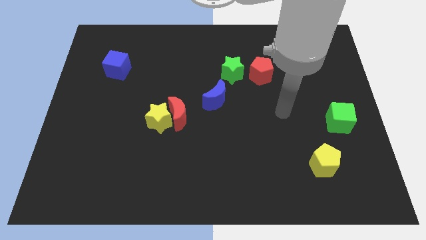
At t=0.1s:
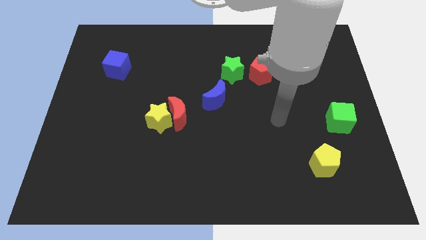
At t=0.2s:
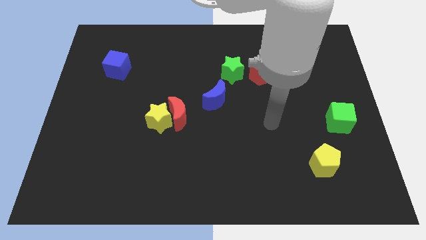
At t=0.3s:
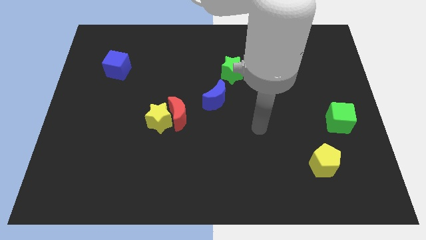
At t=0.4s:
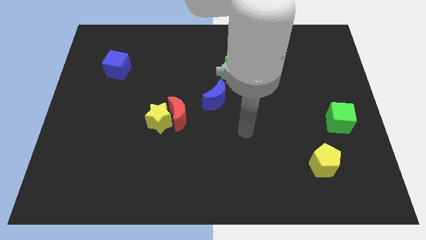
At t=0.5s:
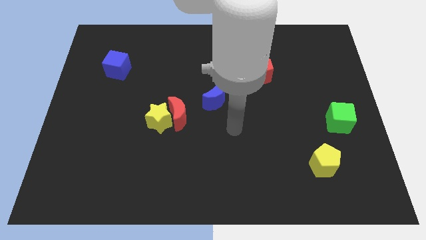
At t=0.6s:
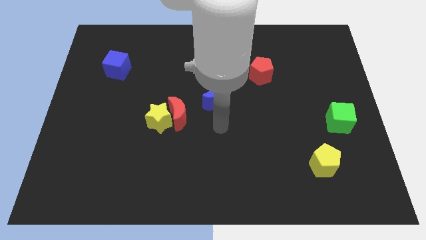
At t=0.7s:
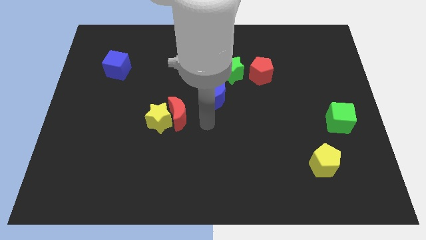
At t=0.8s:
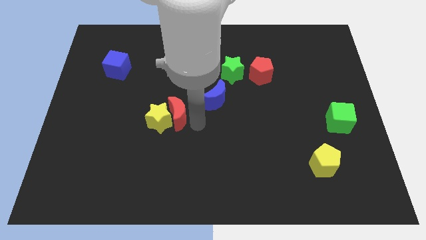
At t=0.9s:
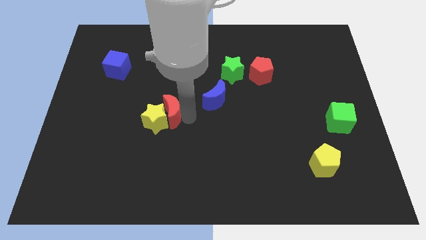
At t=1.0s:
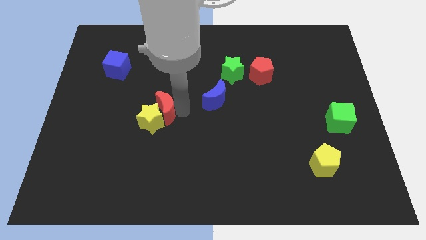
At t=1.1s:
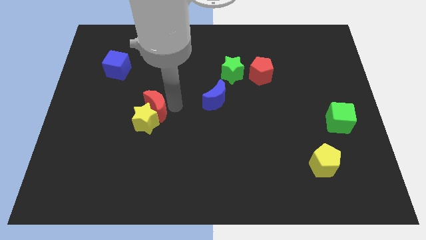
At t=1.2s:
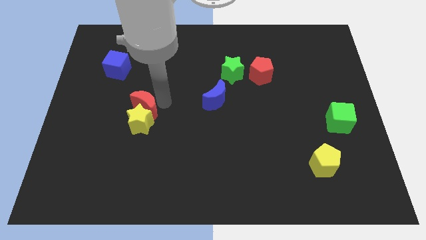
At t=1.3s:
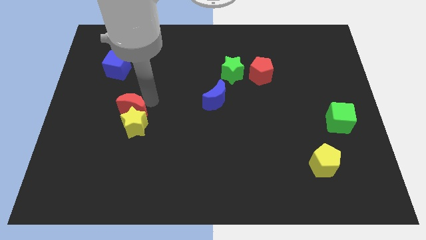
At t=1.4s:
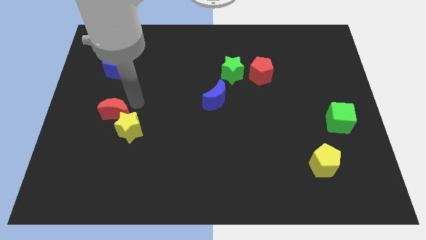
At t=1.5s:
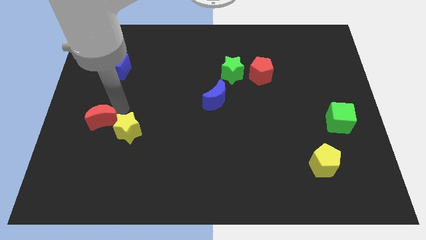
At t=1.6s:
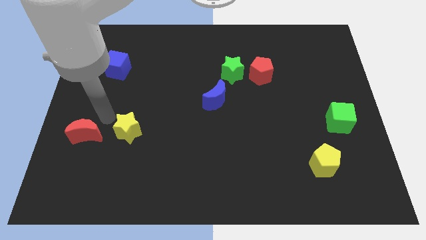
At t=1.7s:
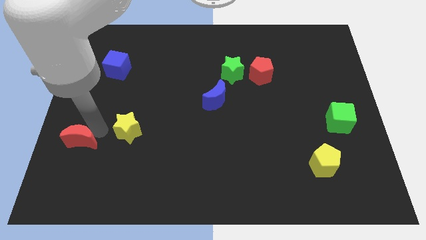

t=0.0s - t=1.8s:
pull the yellow star apart from the red moon

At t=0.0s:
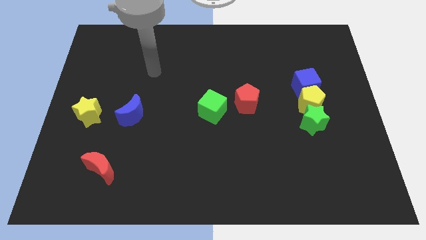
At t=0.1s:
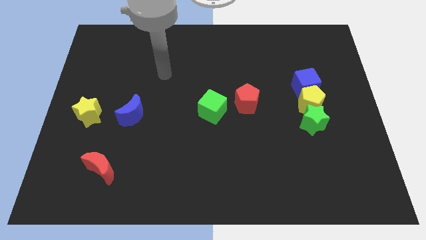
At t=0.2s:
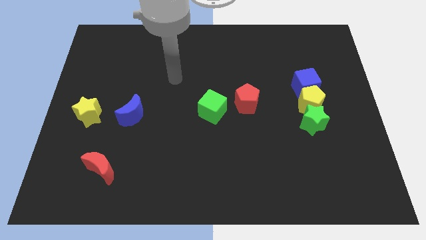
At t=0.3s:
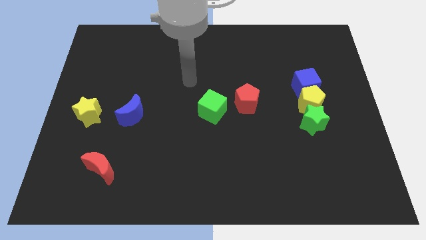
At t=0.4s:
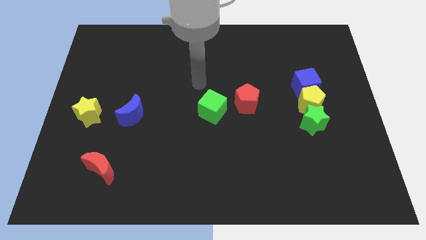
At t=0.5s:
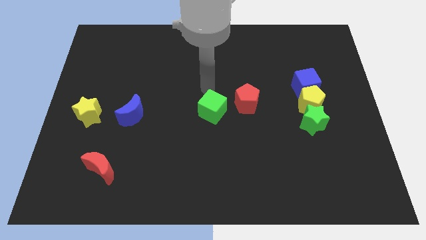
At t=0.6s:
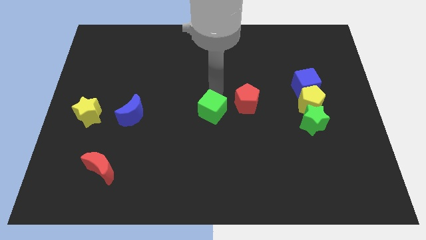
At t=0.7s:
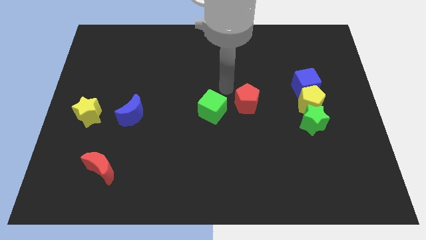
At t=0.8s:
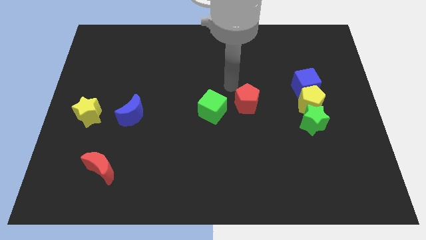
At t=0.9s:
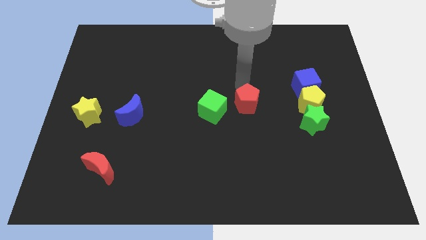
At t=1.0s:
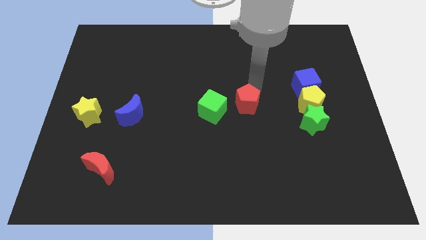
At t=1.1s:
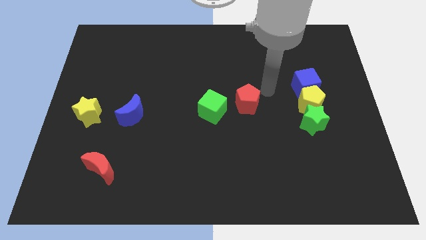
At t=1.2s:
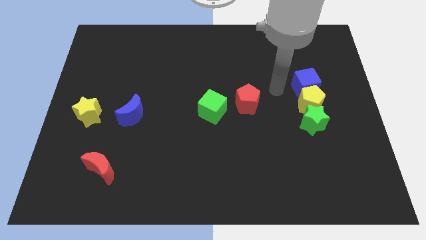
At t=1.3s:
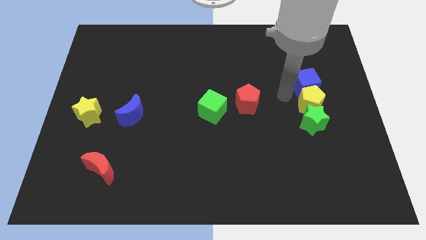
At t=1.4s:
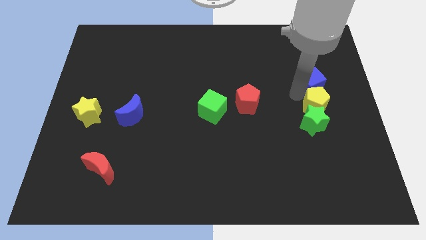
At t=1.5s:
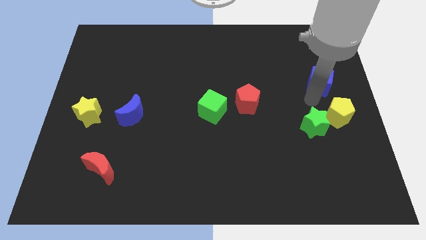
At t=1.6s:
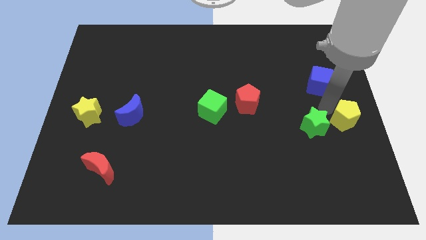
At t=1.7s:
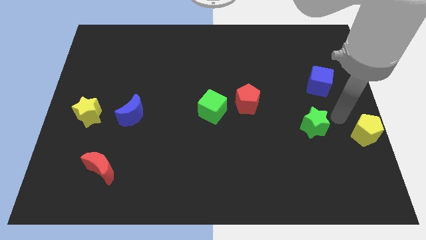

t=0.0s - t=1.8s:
pull the green star apart from the yellow pentagon

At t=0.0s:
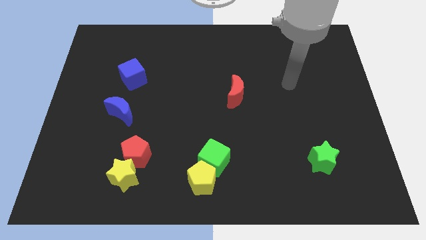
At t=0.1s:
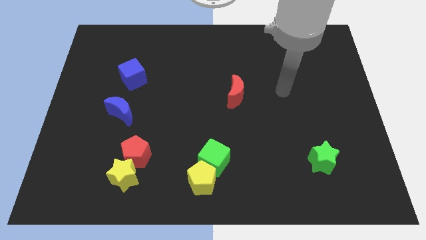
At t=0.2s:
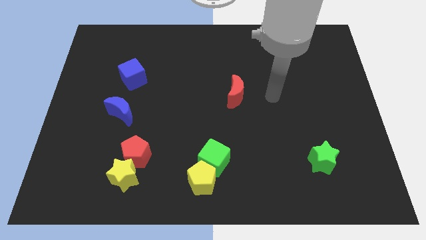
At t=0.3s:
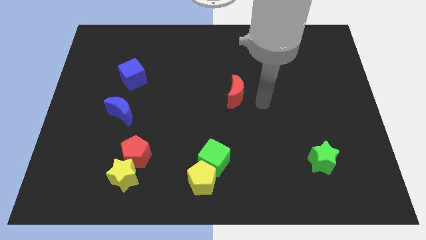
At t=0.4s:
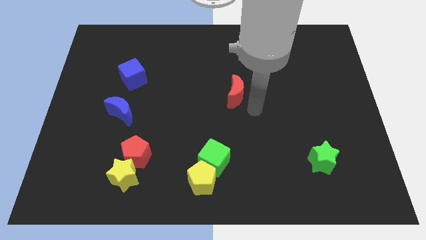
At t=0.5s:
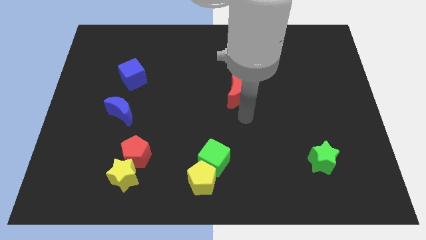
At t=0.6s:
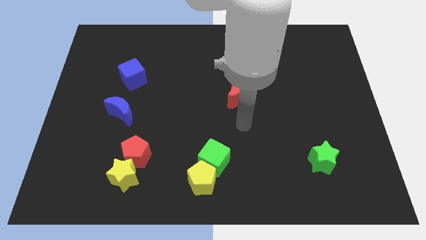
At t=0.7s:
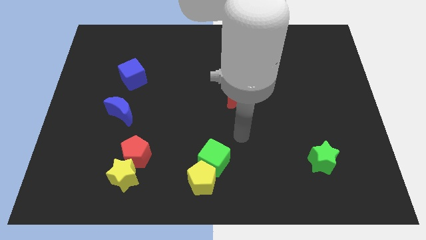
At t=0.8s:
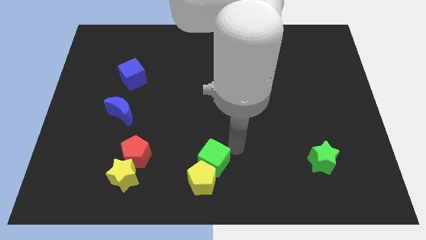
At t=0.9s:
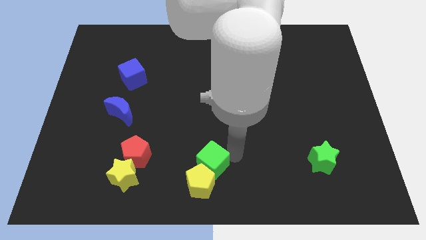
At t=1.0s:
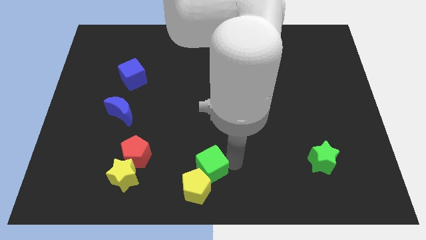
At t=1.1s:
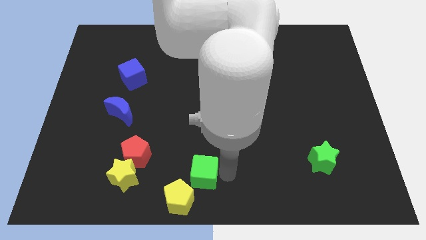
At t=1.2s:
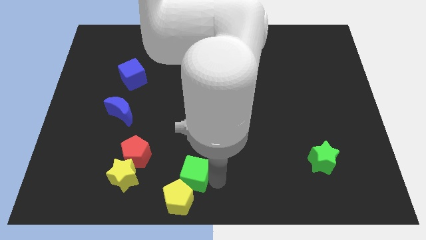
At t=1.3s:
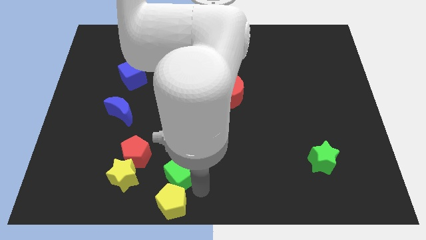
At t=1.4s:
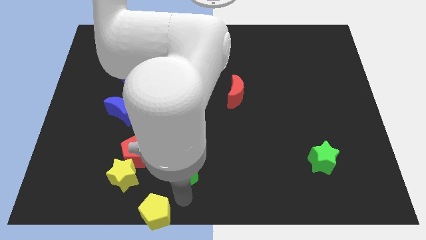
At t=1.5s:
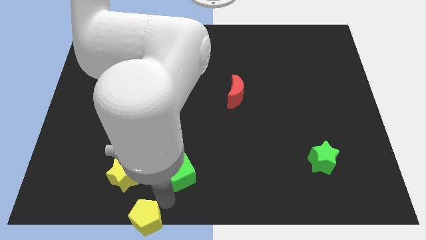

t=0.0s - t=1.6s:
separate the green cube from the yellow pentagon

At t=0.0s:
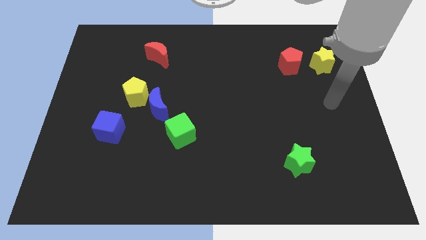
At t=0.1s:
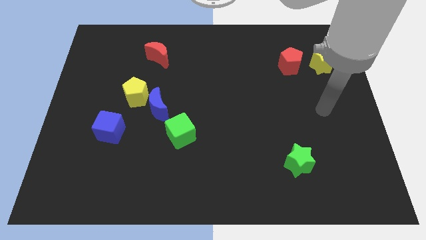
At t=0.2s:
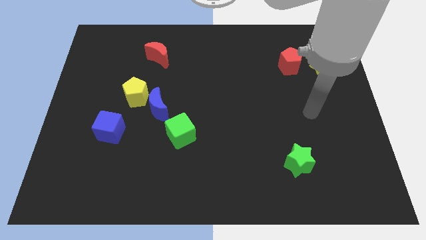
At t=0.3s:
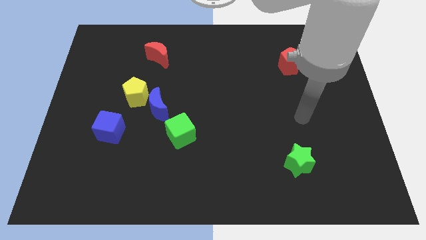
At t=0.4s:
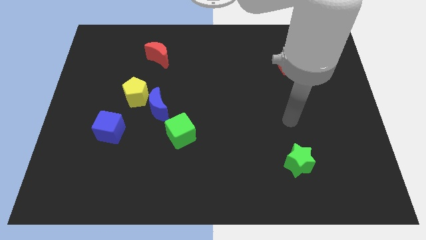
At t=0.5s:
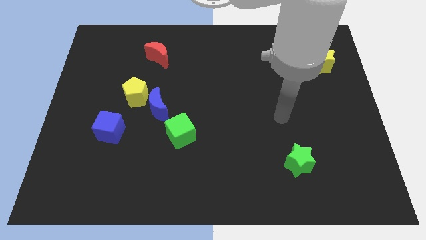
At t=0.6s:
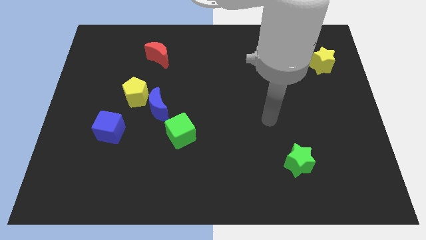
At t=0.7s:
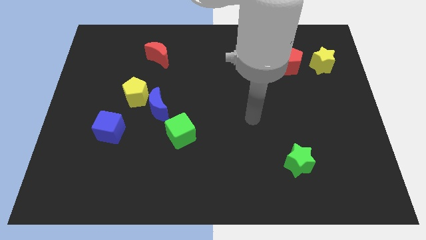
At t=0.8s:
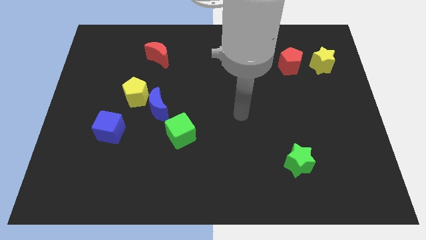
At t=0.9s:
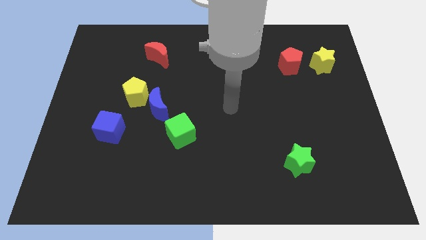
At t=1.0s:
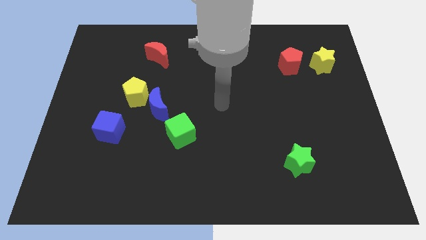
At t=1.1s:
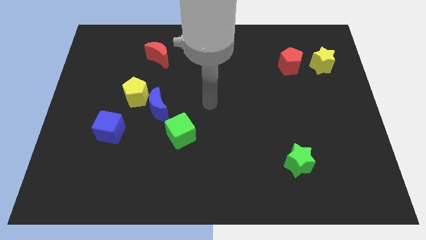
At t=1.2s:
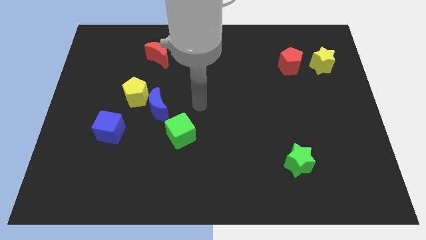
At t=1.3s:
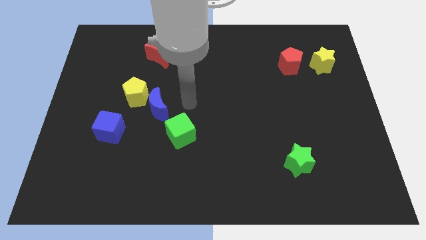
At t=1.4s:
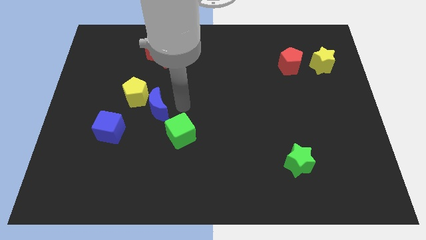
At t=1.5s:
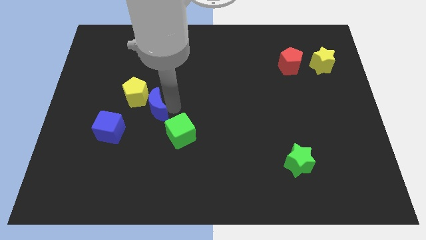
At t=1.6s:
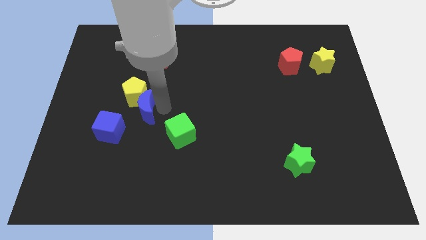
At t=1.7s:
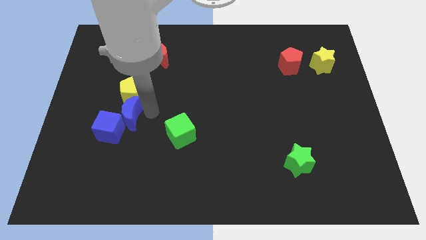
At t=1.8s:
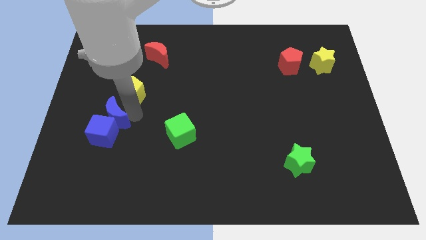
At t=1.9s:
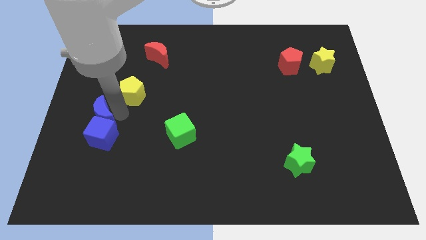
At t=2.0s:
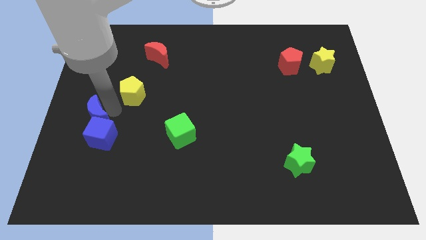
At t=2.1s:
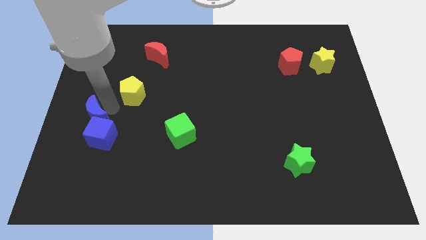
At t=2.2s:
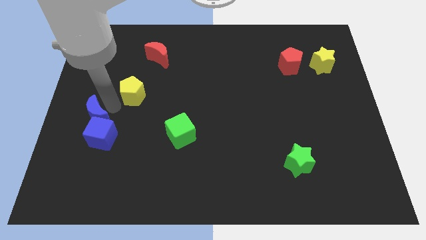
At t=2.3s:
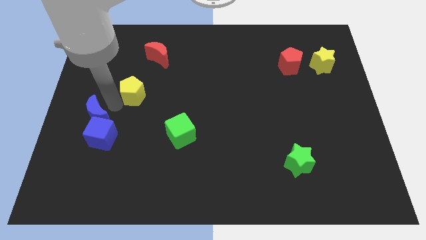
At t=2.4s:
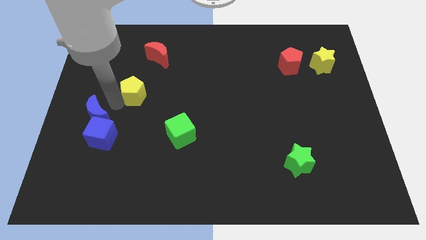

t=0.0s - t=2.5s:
move the yellow pentagon away from the blue moon

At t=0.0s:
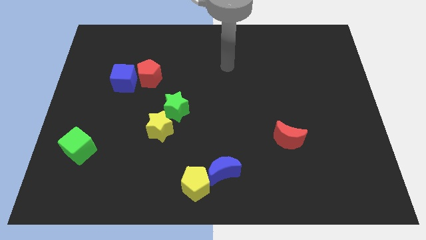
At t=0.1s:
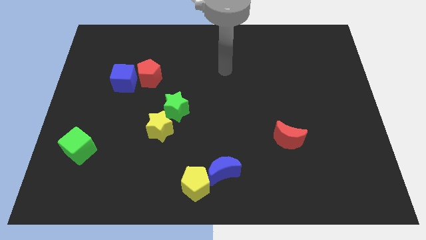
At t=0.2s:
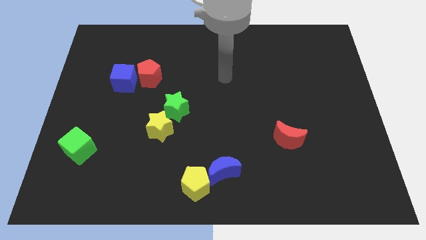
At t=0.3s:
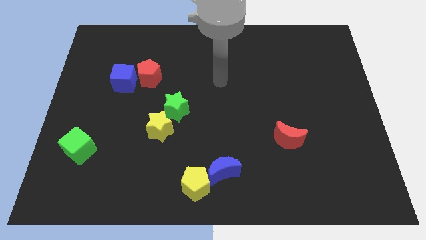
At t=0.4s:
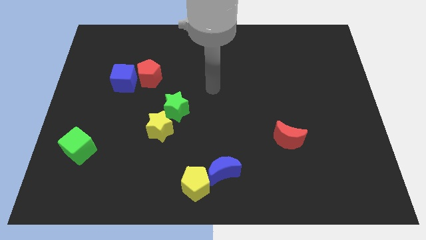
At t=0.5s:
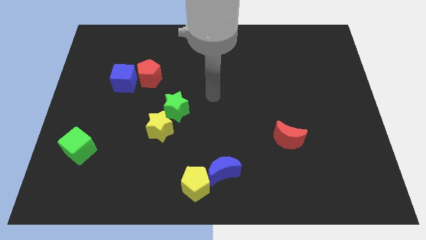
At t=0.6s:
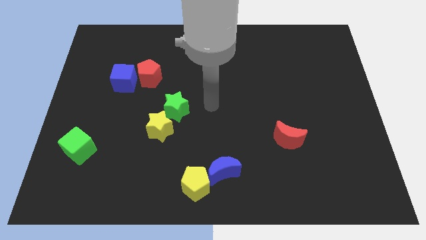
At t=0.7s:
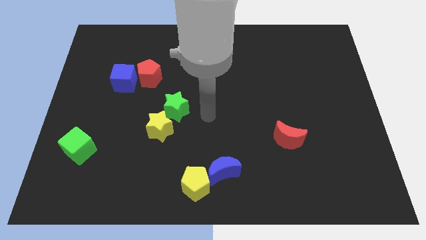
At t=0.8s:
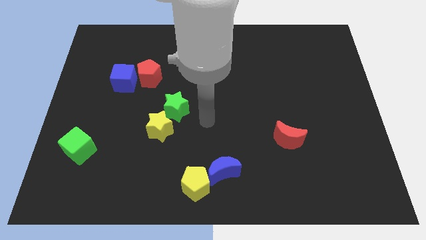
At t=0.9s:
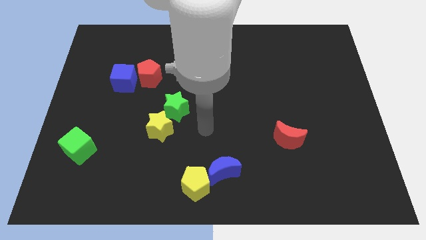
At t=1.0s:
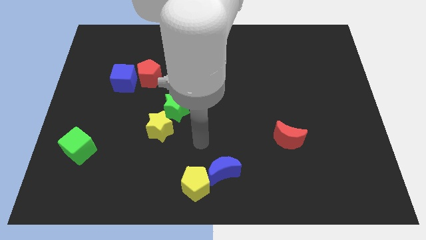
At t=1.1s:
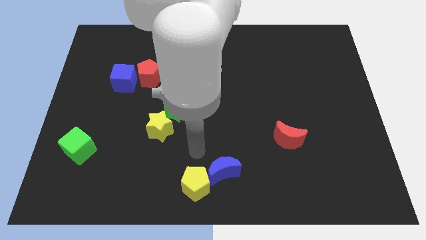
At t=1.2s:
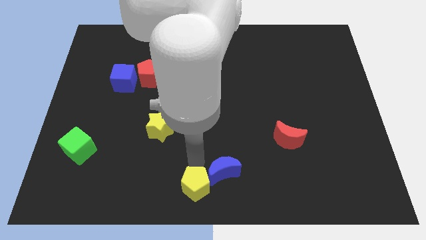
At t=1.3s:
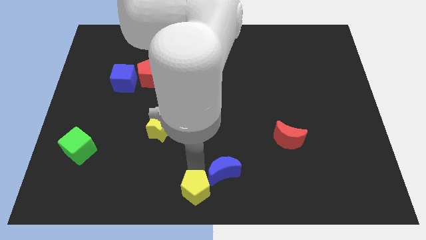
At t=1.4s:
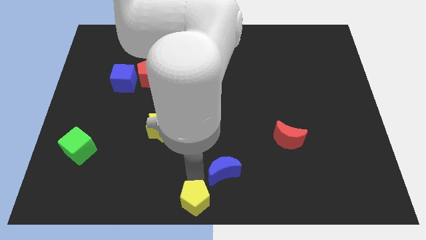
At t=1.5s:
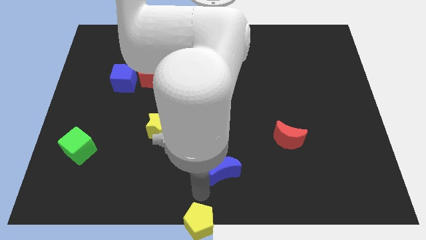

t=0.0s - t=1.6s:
separate the blue moon from the yellow pentagon

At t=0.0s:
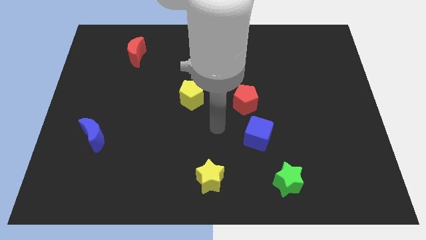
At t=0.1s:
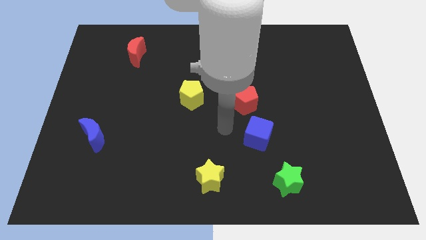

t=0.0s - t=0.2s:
move the red pentagon away from the blue cube
